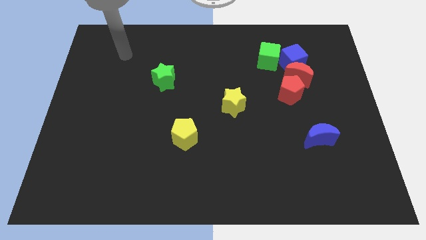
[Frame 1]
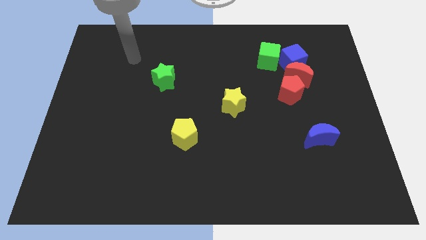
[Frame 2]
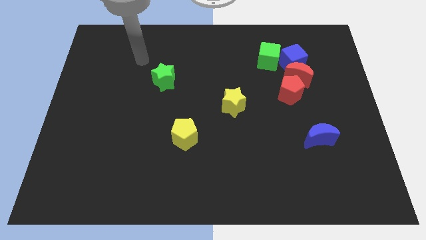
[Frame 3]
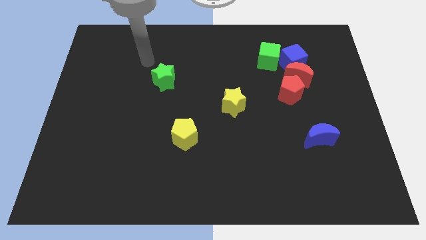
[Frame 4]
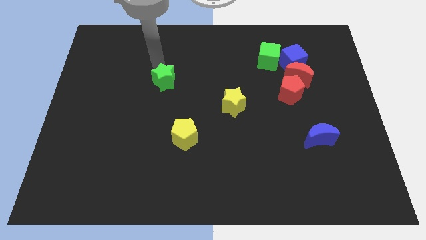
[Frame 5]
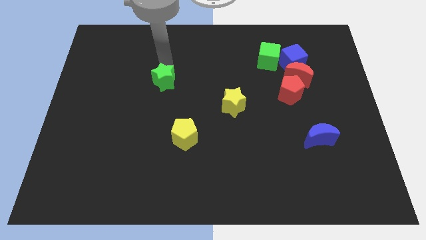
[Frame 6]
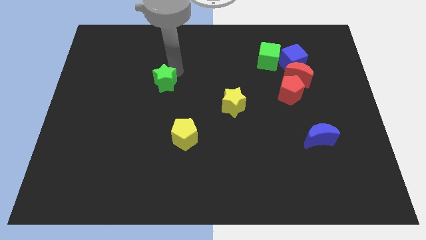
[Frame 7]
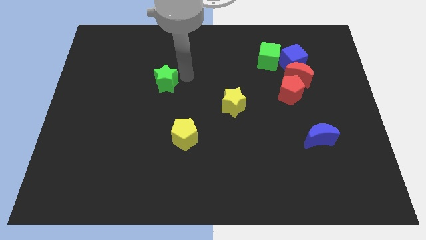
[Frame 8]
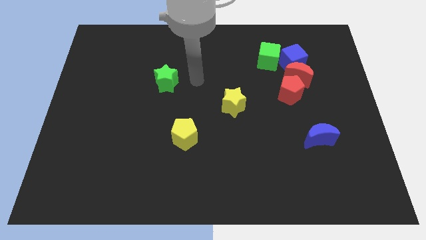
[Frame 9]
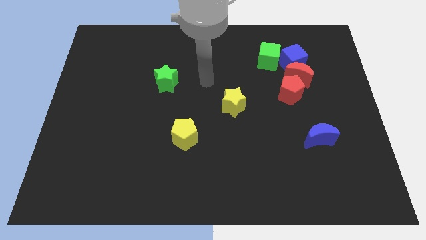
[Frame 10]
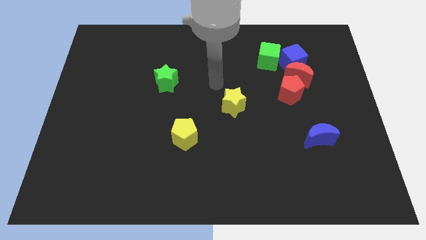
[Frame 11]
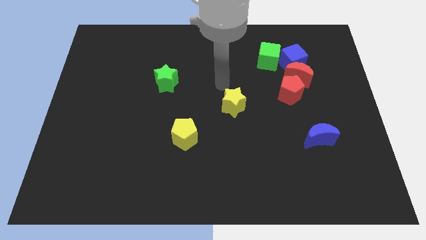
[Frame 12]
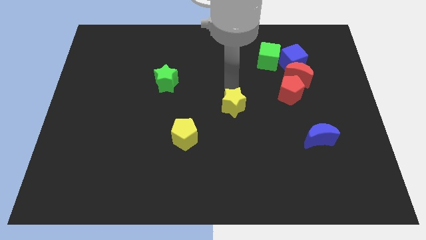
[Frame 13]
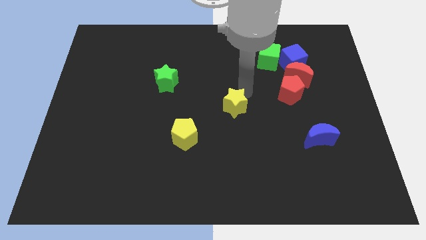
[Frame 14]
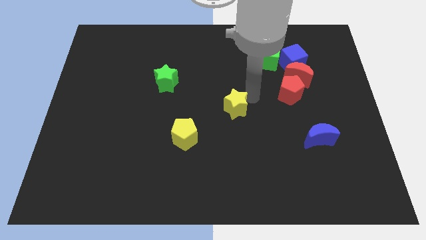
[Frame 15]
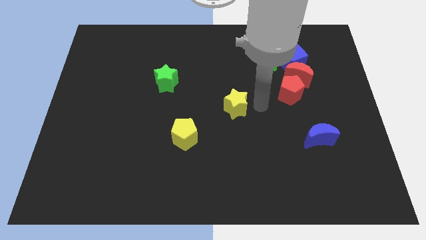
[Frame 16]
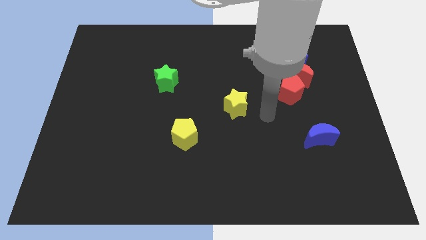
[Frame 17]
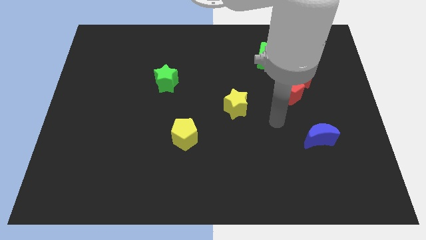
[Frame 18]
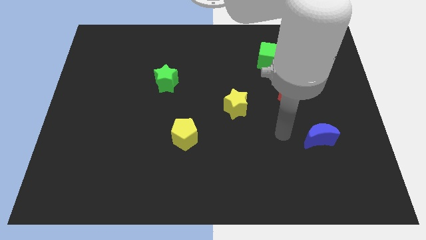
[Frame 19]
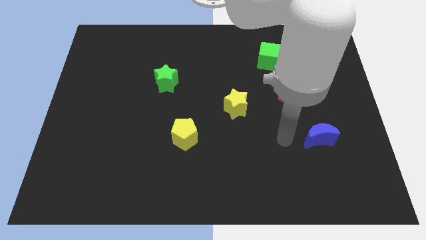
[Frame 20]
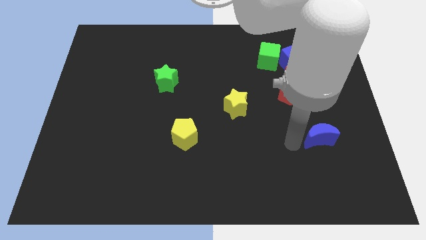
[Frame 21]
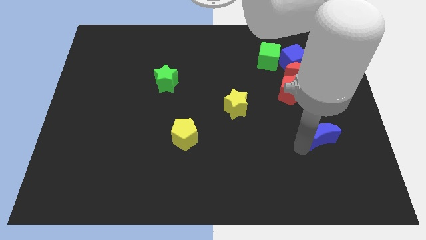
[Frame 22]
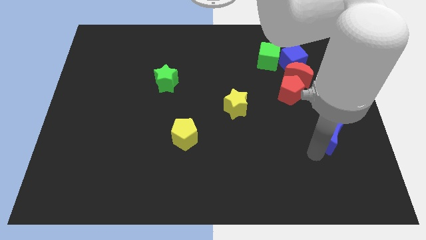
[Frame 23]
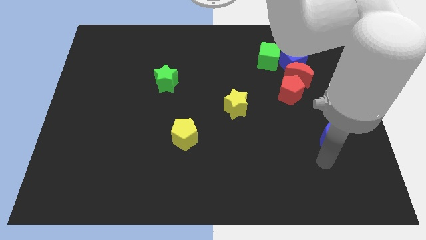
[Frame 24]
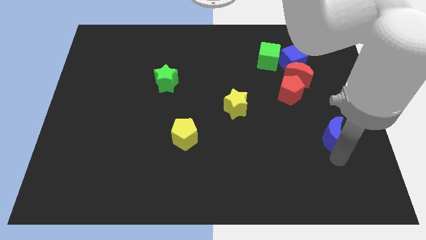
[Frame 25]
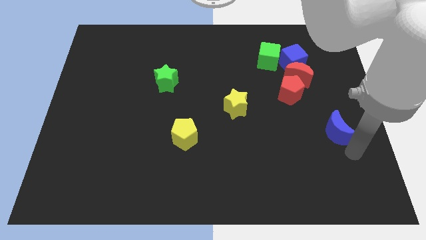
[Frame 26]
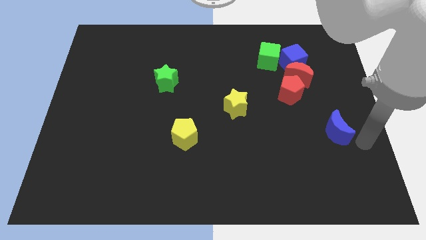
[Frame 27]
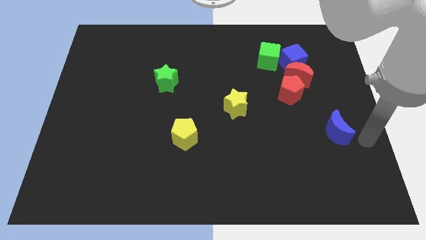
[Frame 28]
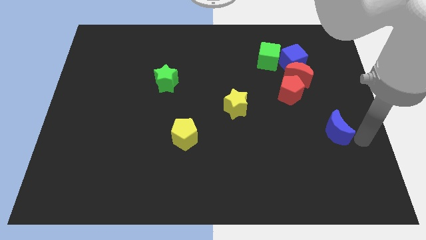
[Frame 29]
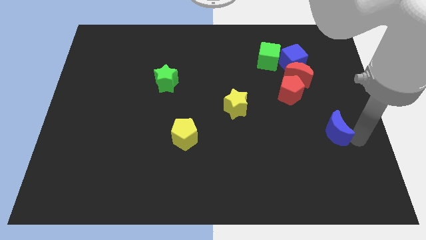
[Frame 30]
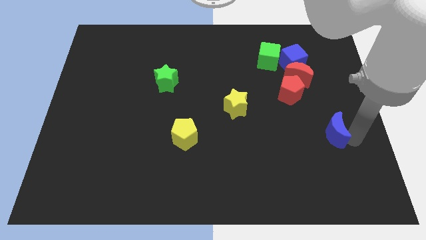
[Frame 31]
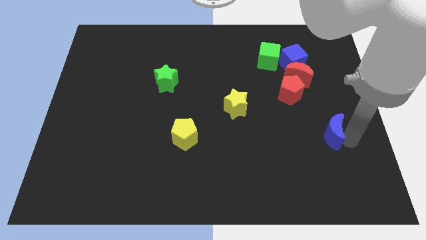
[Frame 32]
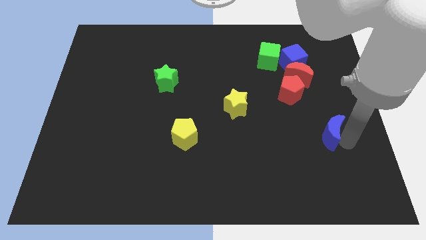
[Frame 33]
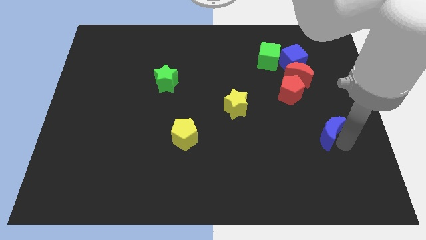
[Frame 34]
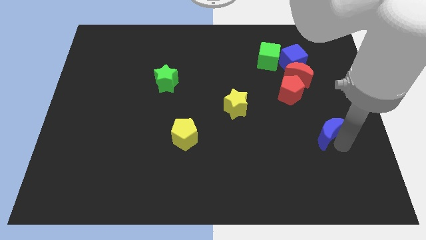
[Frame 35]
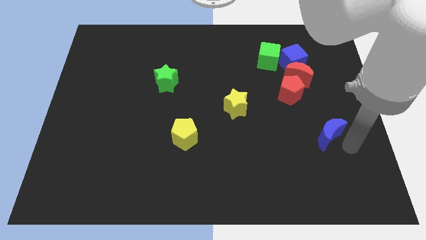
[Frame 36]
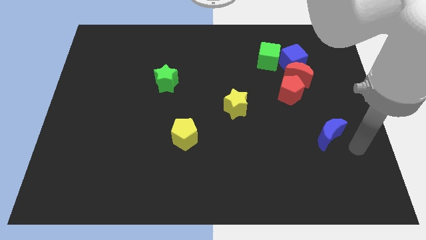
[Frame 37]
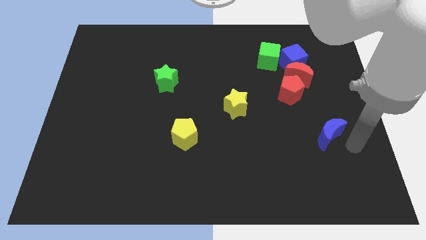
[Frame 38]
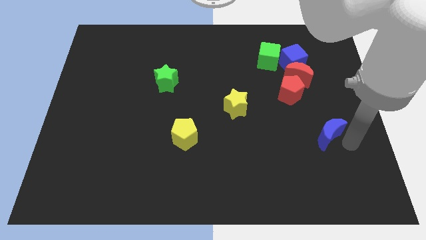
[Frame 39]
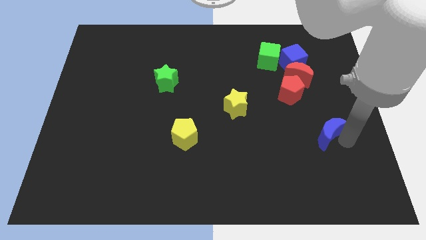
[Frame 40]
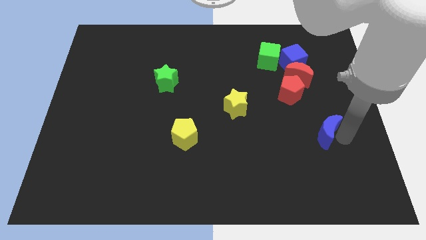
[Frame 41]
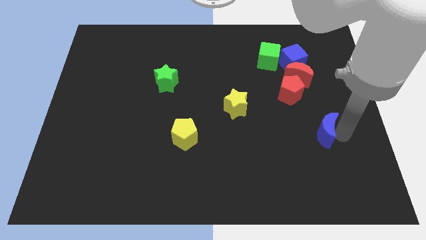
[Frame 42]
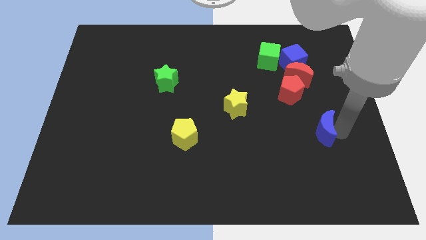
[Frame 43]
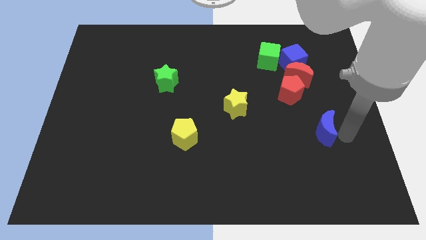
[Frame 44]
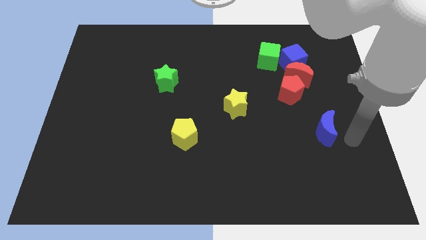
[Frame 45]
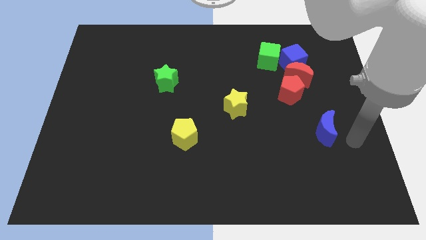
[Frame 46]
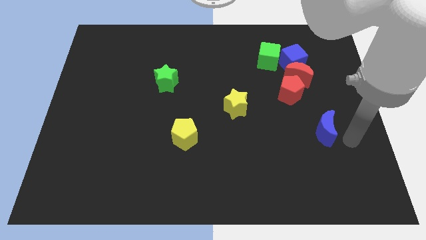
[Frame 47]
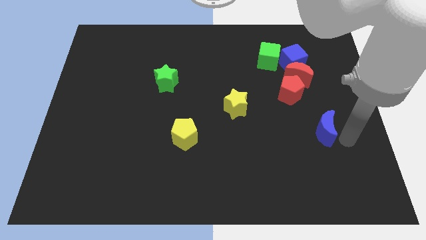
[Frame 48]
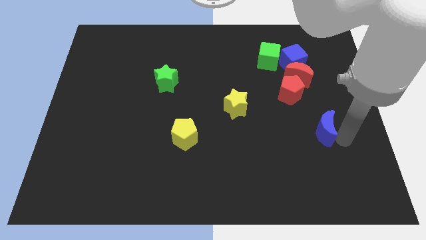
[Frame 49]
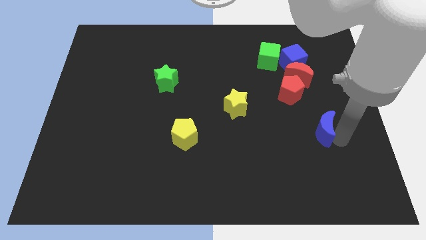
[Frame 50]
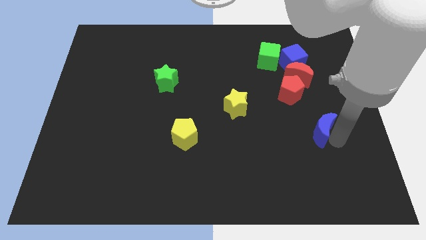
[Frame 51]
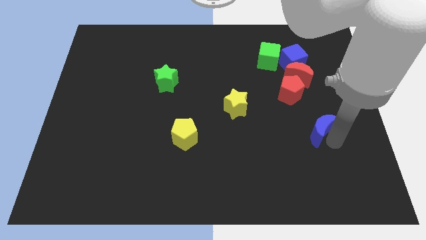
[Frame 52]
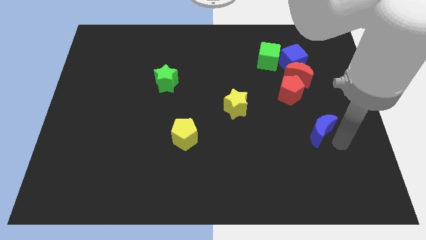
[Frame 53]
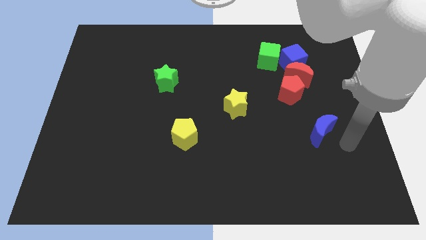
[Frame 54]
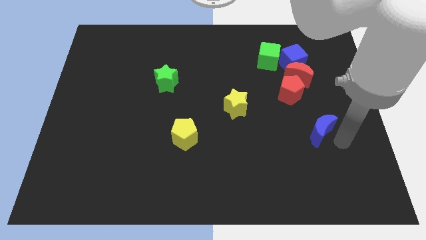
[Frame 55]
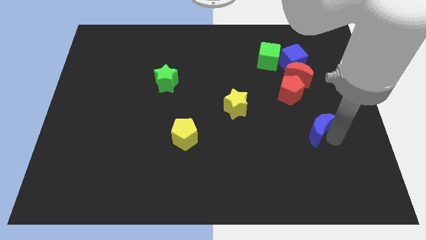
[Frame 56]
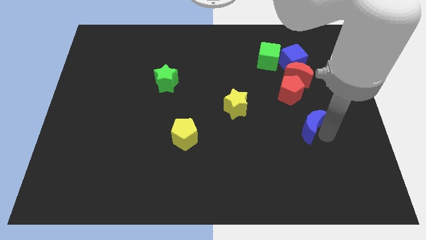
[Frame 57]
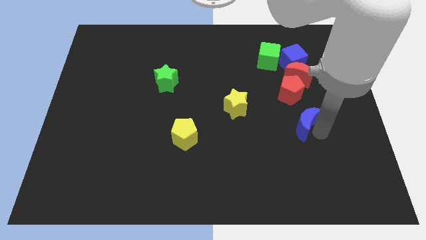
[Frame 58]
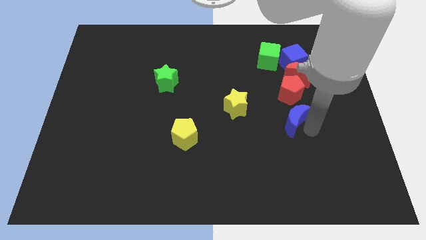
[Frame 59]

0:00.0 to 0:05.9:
slide the blue moon a bit upwards and left diagonally

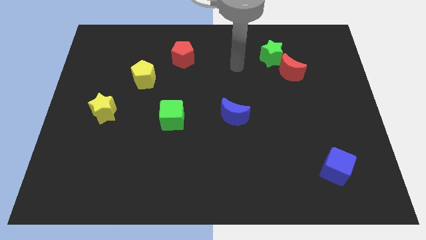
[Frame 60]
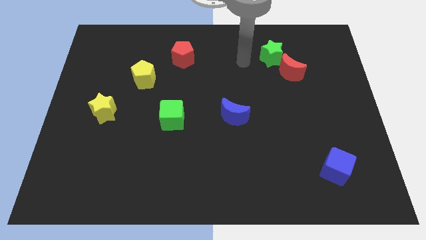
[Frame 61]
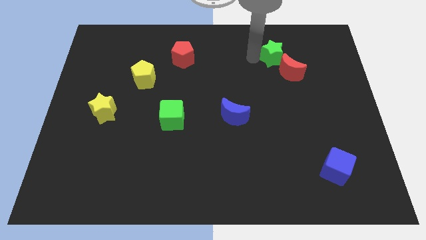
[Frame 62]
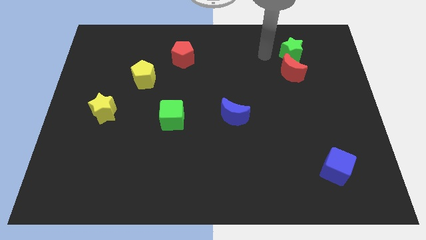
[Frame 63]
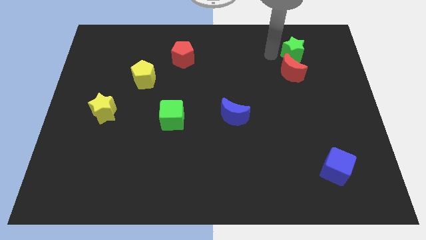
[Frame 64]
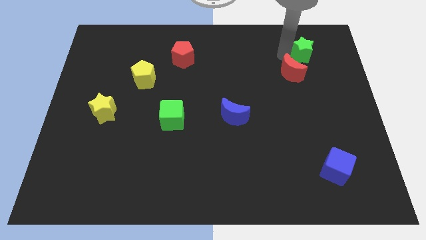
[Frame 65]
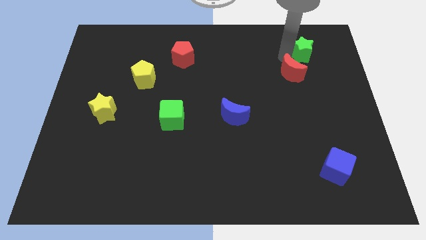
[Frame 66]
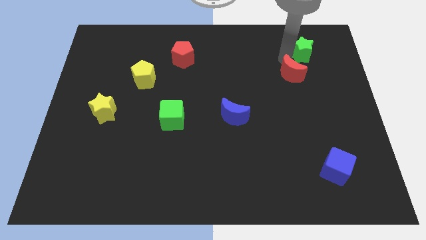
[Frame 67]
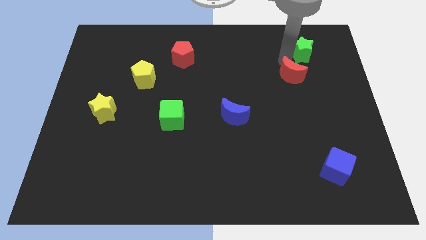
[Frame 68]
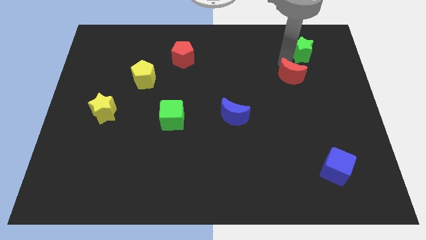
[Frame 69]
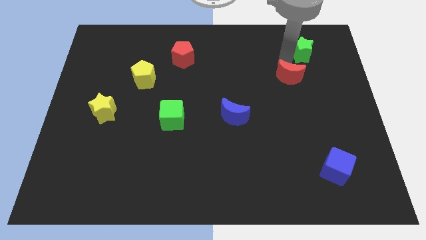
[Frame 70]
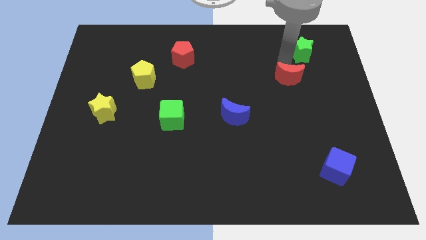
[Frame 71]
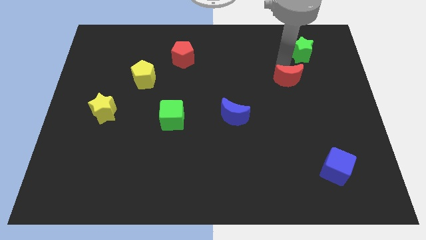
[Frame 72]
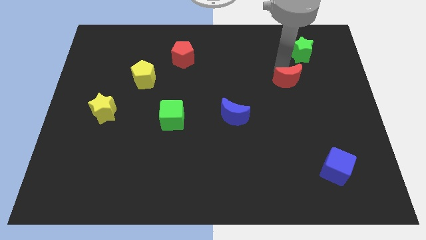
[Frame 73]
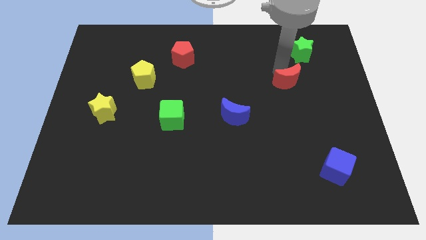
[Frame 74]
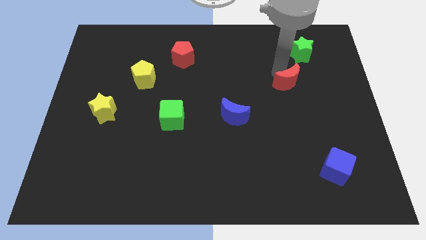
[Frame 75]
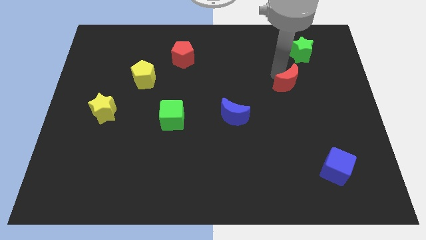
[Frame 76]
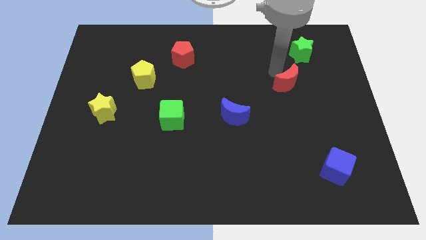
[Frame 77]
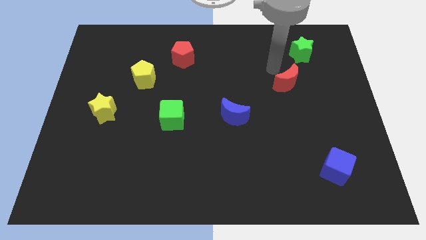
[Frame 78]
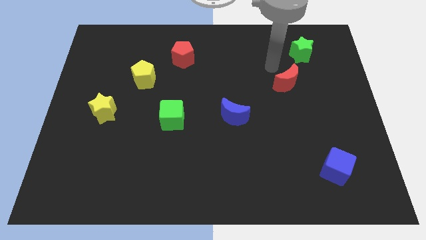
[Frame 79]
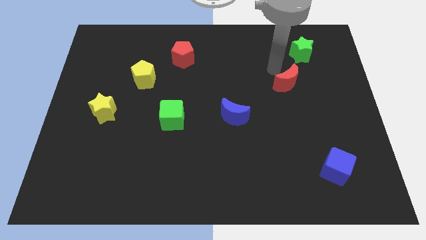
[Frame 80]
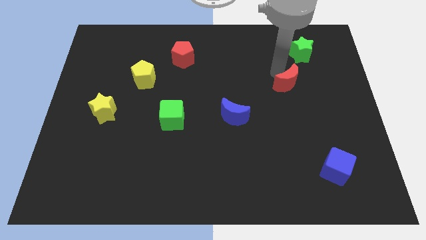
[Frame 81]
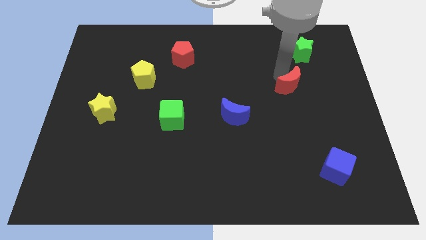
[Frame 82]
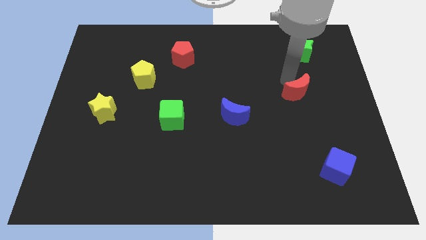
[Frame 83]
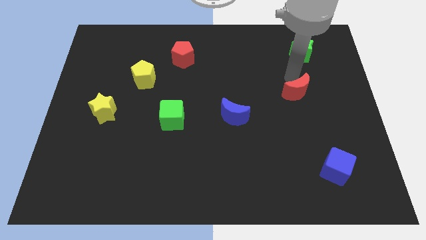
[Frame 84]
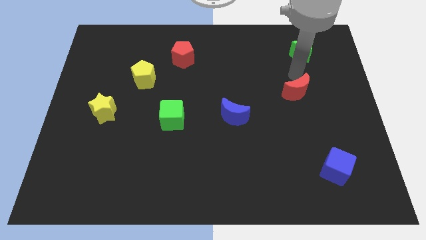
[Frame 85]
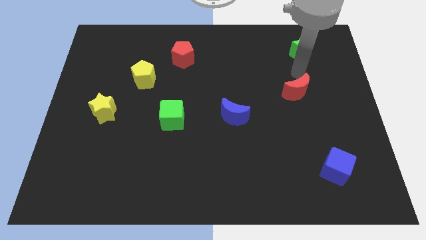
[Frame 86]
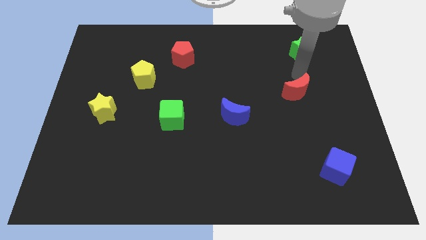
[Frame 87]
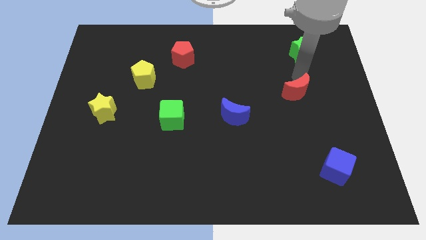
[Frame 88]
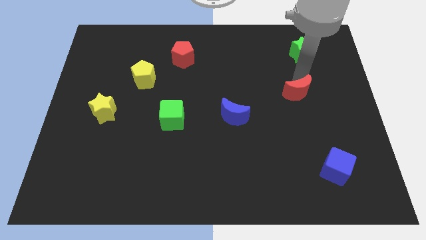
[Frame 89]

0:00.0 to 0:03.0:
move the red moon downwards a bit
